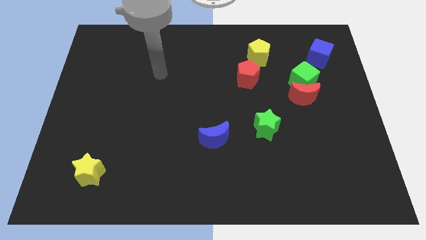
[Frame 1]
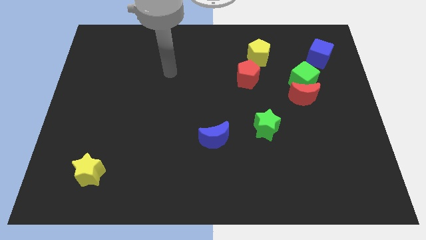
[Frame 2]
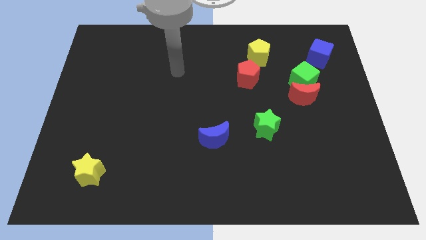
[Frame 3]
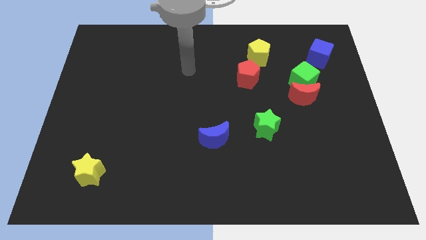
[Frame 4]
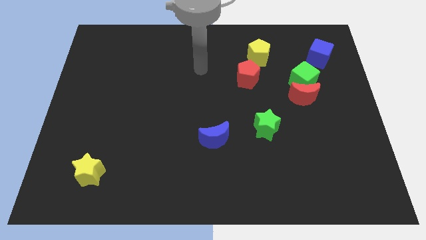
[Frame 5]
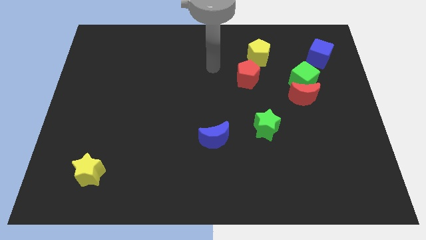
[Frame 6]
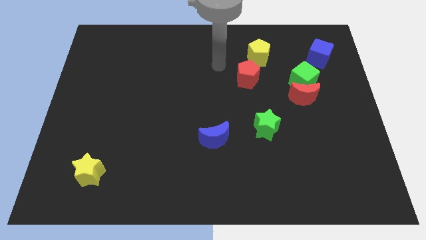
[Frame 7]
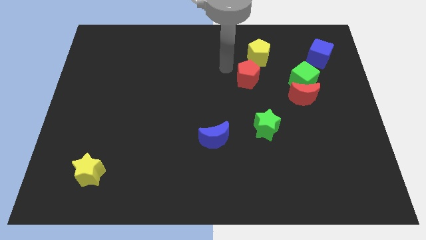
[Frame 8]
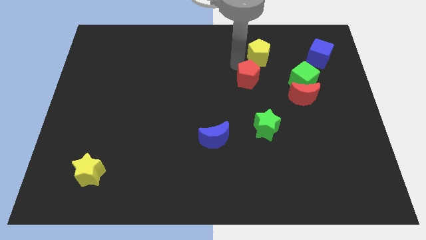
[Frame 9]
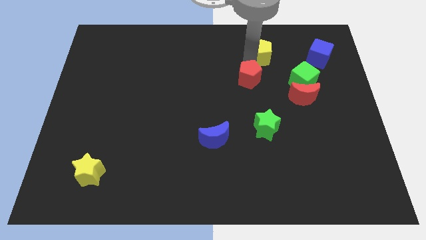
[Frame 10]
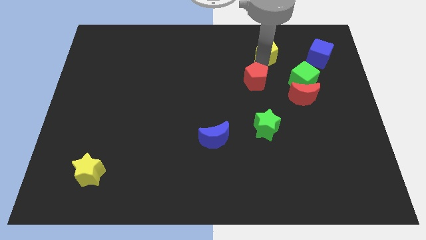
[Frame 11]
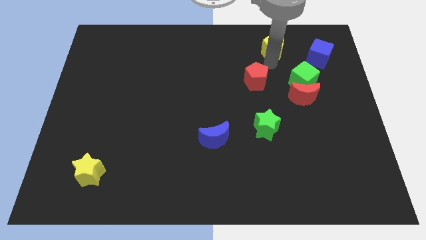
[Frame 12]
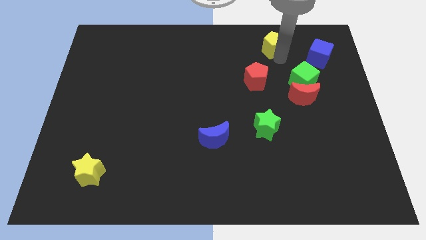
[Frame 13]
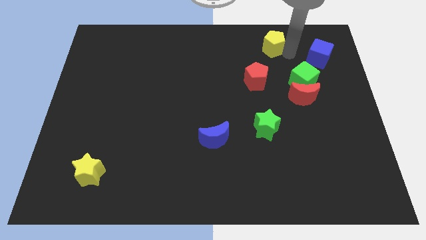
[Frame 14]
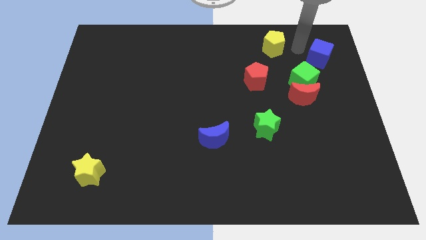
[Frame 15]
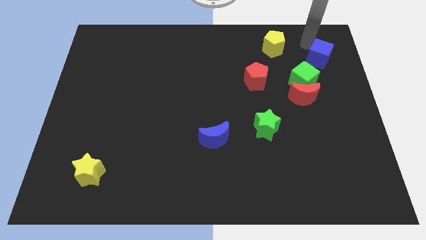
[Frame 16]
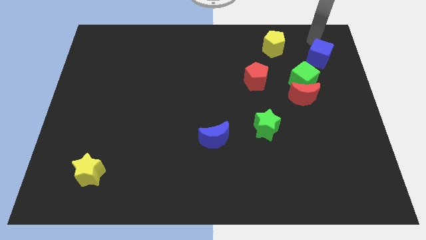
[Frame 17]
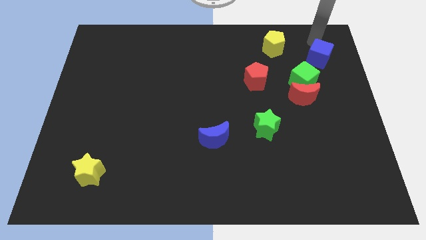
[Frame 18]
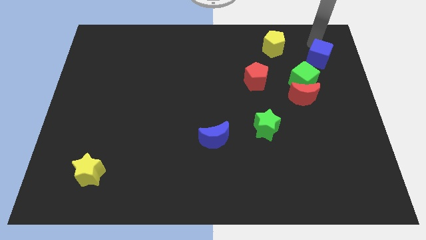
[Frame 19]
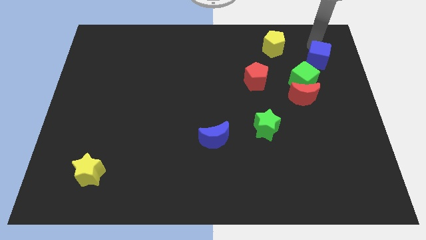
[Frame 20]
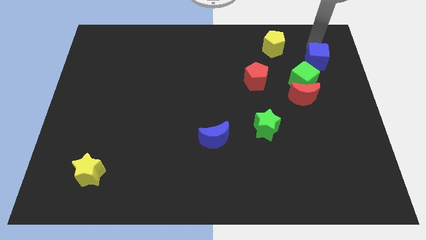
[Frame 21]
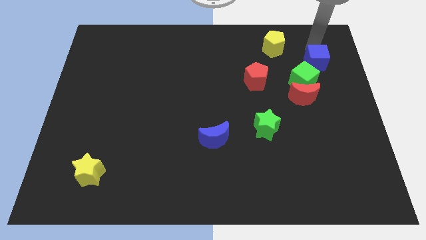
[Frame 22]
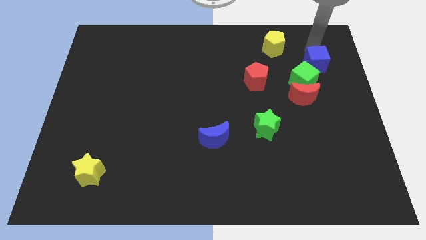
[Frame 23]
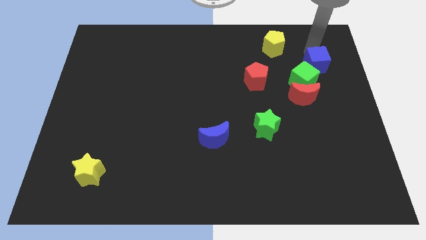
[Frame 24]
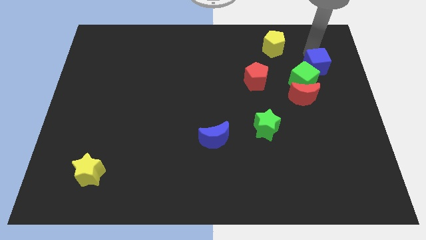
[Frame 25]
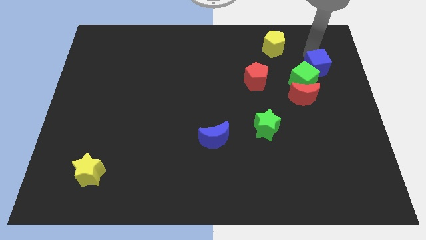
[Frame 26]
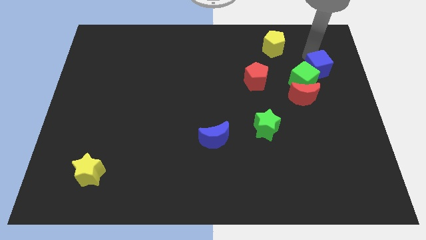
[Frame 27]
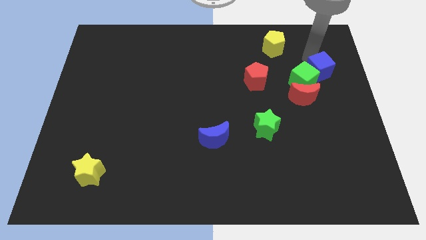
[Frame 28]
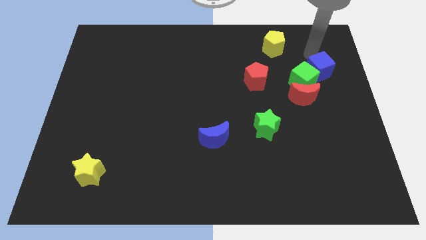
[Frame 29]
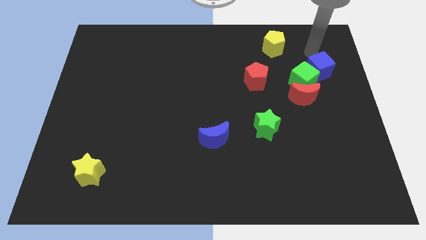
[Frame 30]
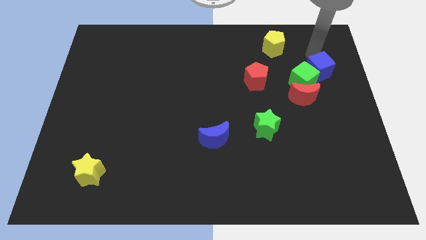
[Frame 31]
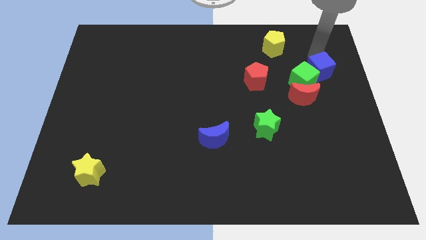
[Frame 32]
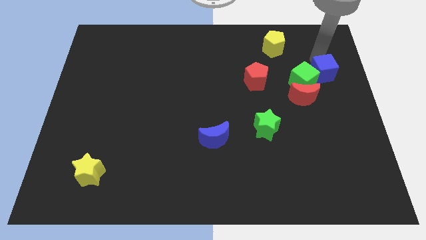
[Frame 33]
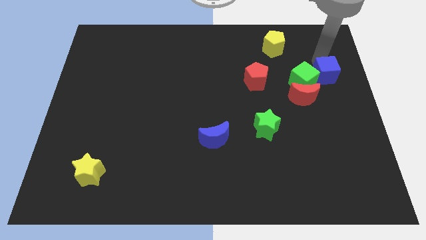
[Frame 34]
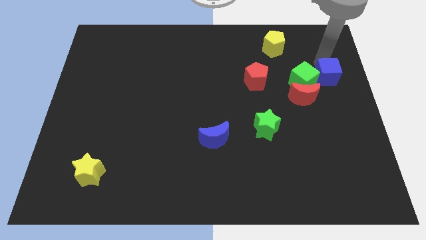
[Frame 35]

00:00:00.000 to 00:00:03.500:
slightly move the blue cube downwards

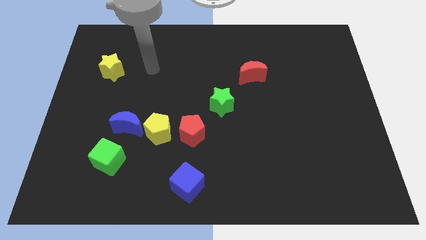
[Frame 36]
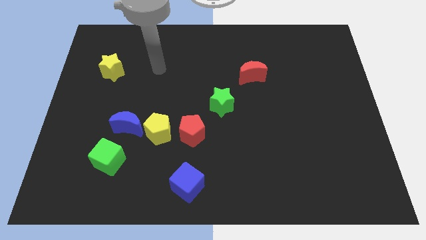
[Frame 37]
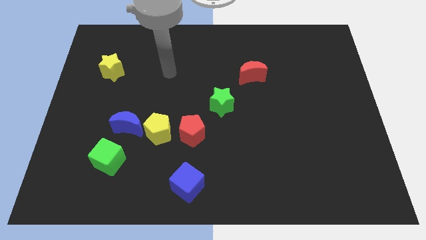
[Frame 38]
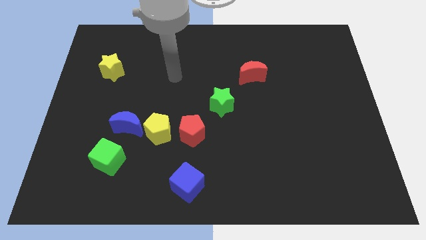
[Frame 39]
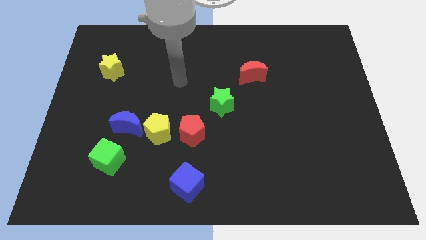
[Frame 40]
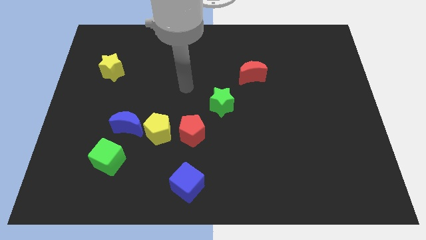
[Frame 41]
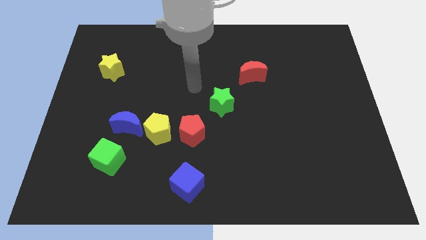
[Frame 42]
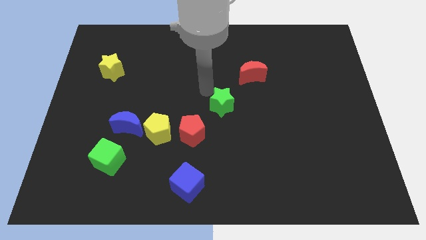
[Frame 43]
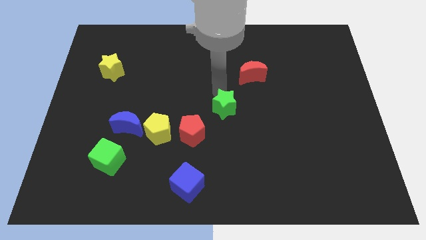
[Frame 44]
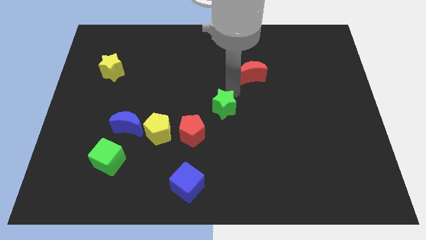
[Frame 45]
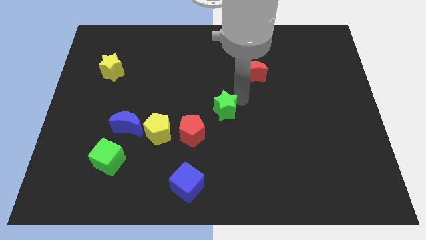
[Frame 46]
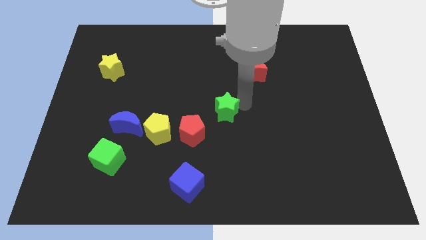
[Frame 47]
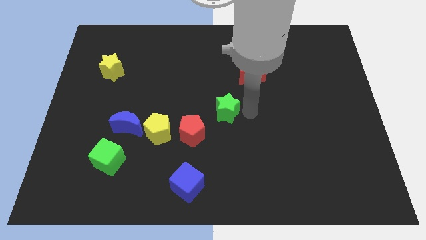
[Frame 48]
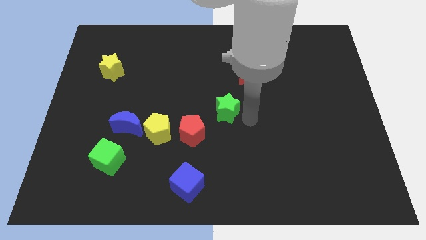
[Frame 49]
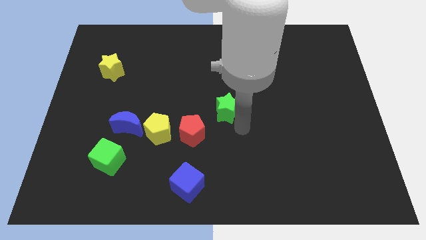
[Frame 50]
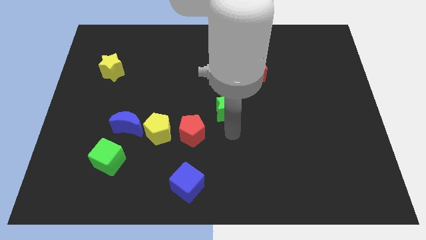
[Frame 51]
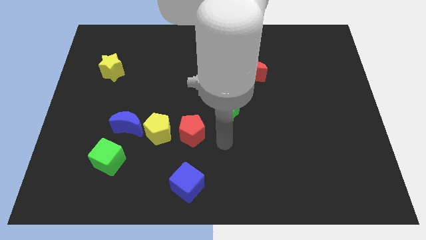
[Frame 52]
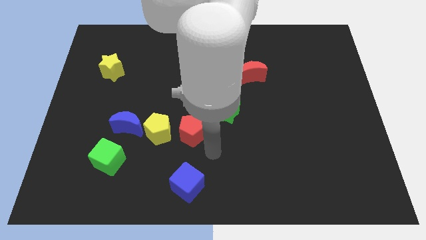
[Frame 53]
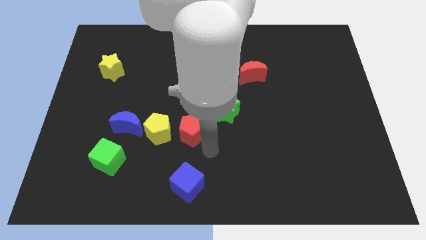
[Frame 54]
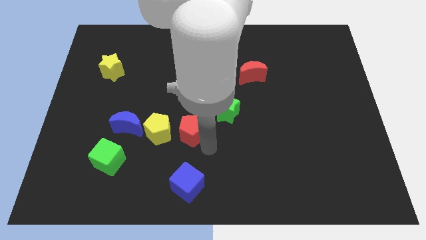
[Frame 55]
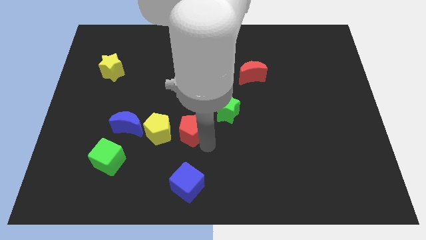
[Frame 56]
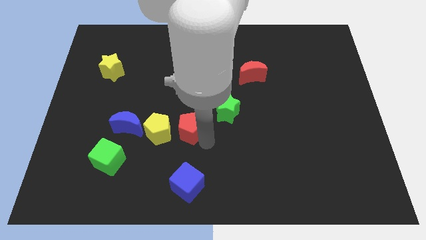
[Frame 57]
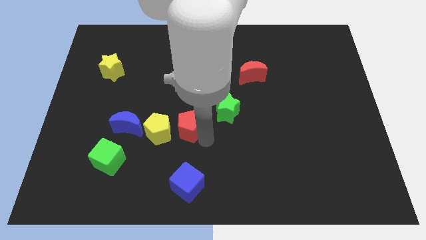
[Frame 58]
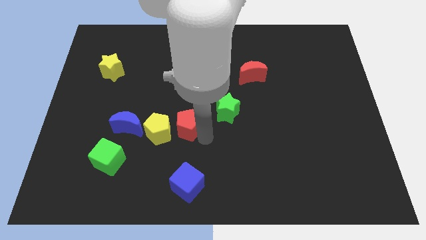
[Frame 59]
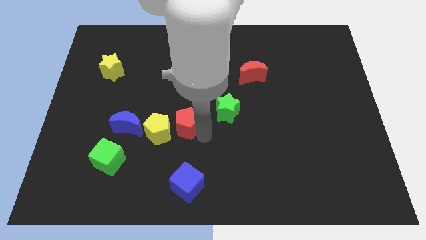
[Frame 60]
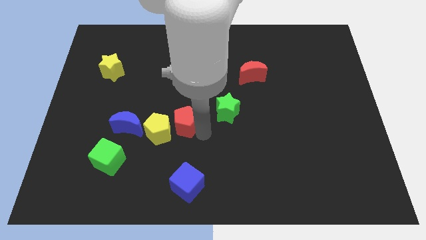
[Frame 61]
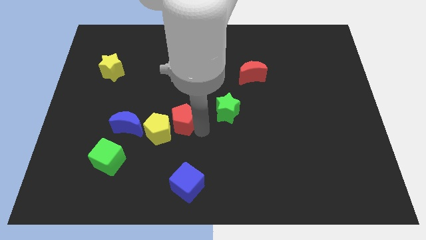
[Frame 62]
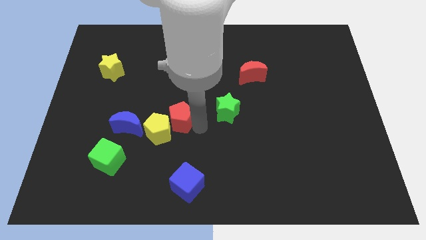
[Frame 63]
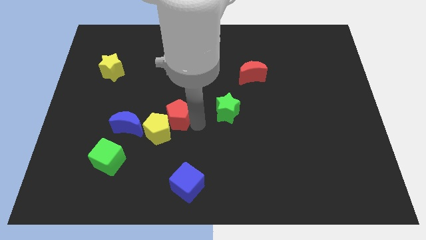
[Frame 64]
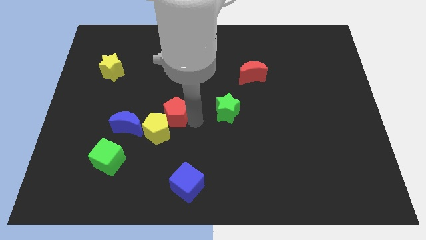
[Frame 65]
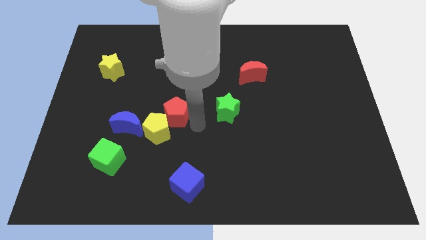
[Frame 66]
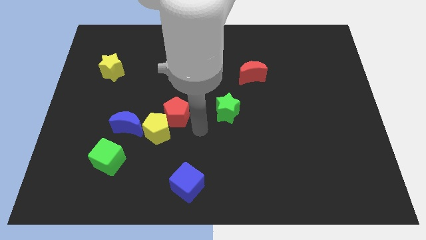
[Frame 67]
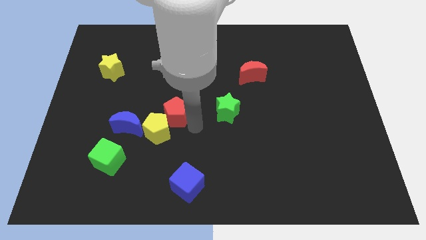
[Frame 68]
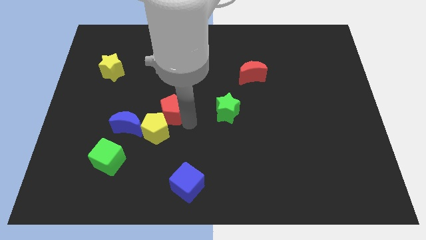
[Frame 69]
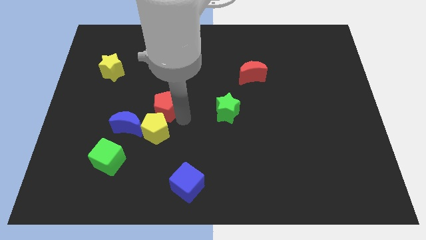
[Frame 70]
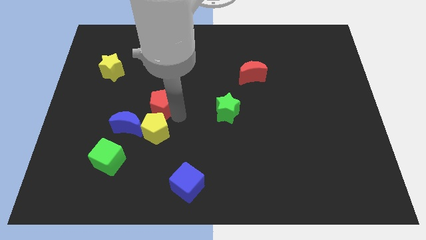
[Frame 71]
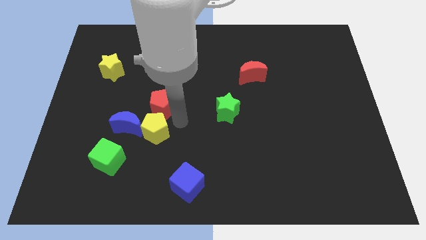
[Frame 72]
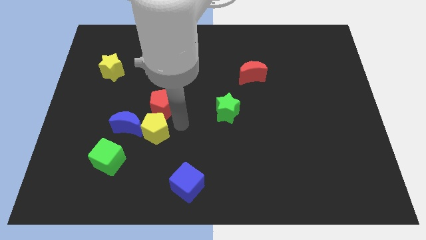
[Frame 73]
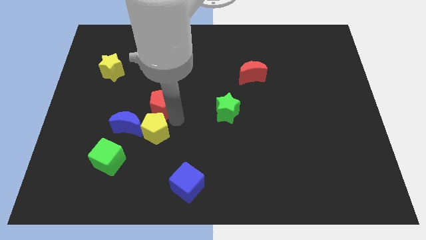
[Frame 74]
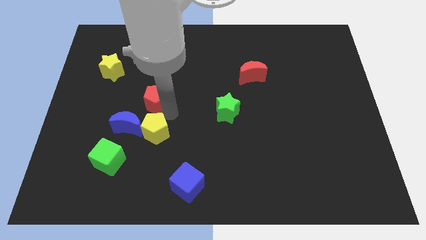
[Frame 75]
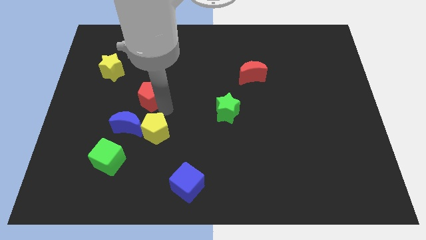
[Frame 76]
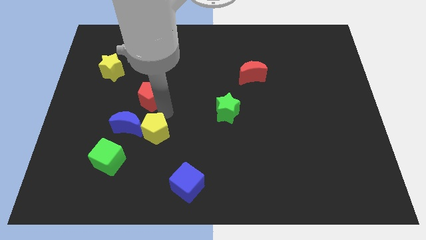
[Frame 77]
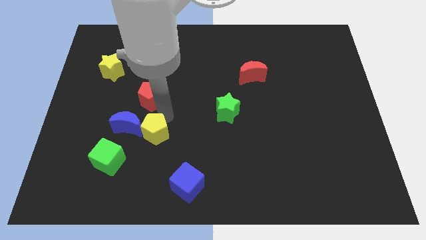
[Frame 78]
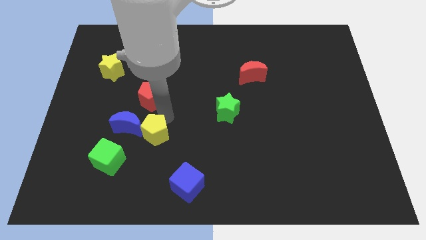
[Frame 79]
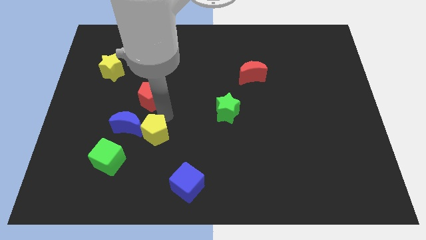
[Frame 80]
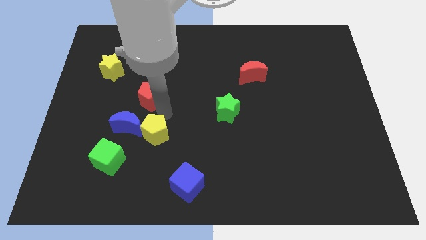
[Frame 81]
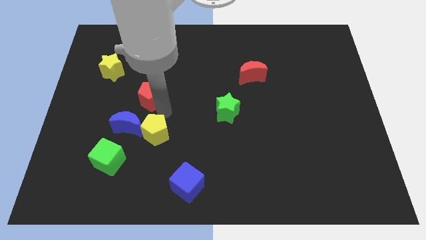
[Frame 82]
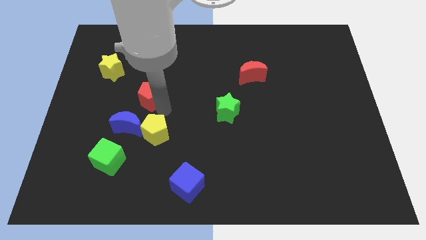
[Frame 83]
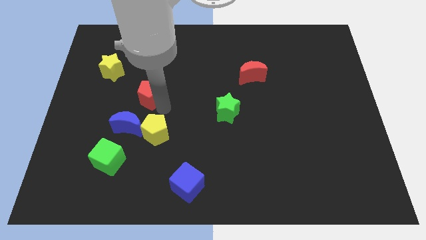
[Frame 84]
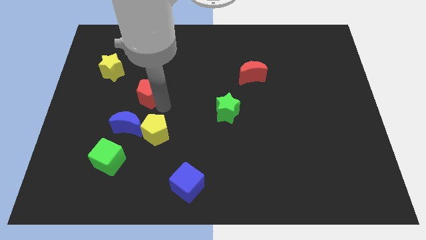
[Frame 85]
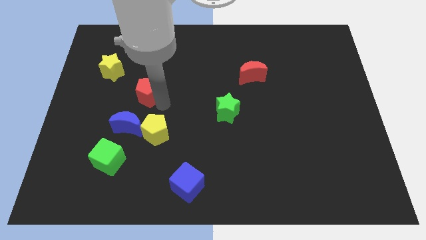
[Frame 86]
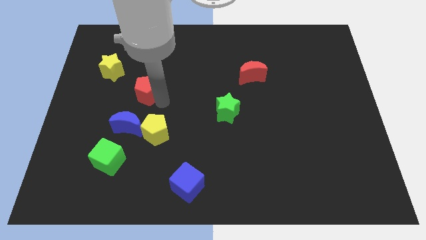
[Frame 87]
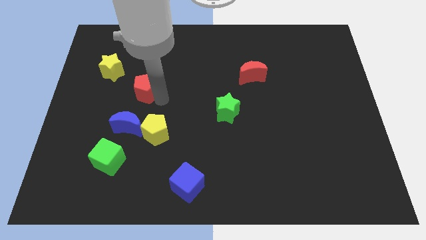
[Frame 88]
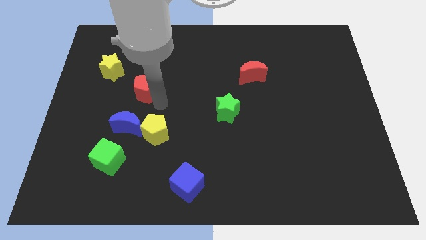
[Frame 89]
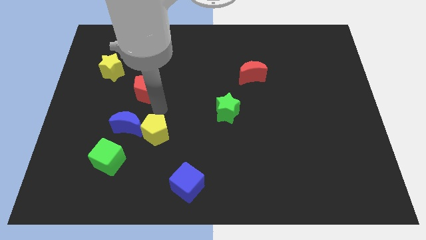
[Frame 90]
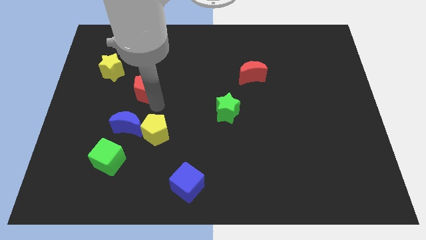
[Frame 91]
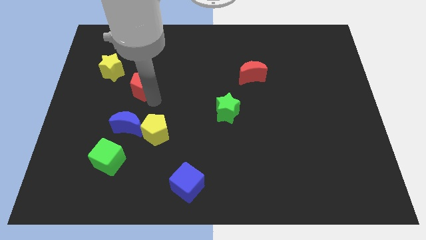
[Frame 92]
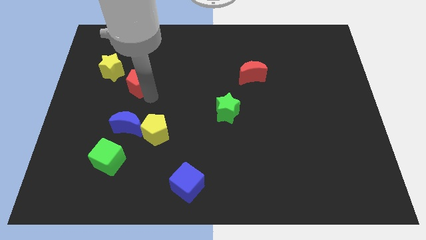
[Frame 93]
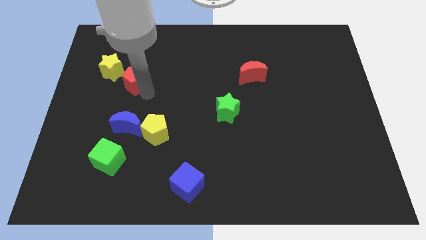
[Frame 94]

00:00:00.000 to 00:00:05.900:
move the red pentagon upwards and left
